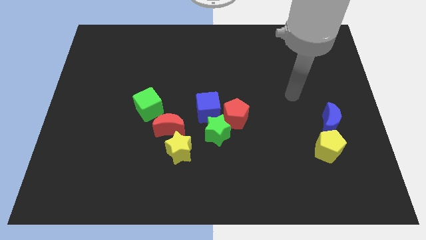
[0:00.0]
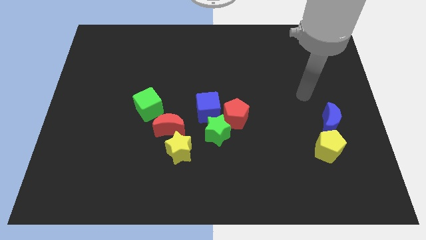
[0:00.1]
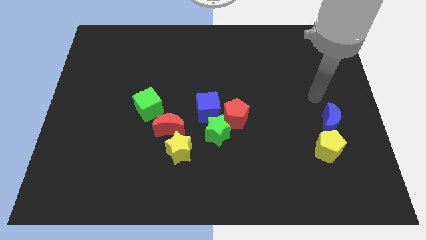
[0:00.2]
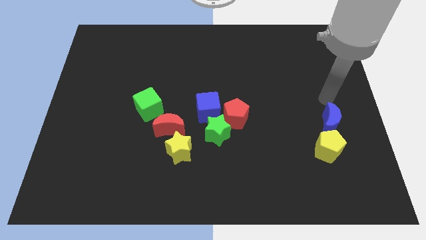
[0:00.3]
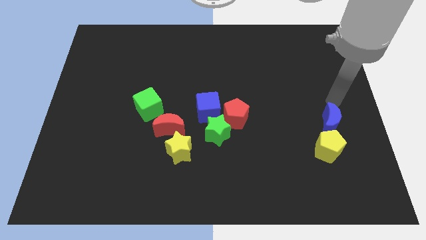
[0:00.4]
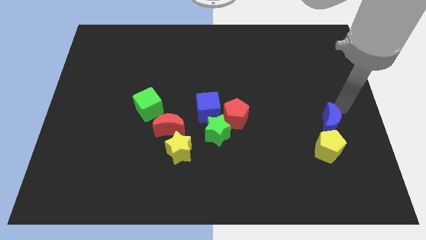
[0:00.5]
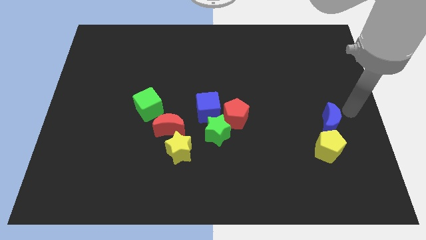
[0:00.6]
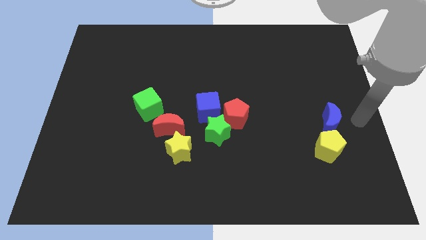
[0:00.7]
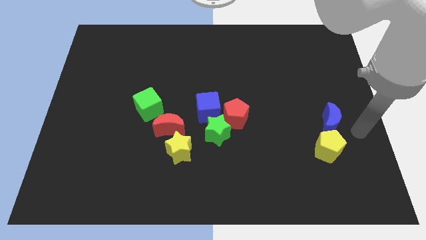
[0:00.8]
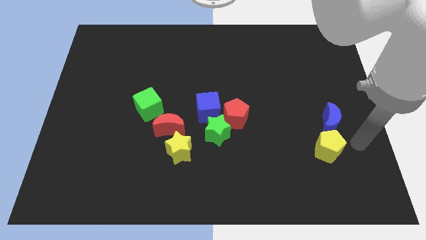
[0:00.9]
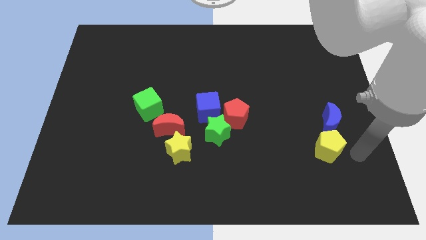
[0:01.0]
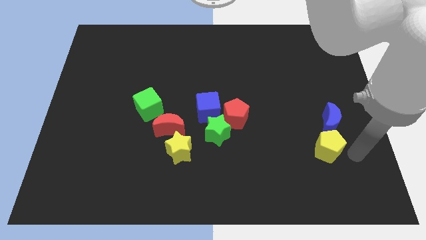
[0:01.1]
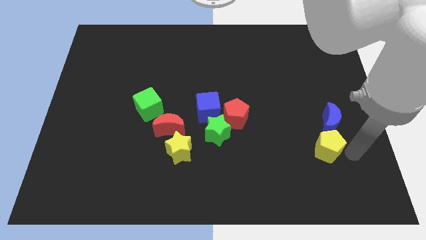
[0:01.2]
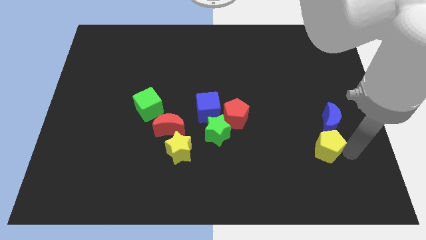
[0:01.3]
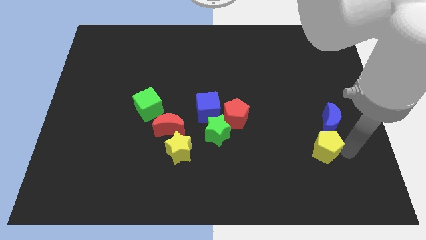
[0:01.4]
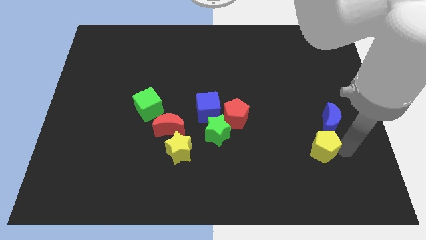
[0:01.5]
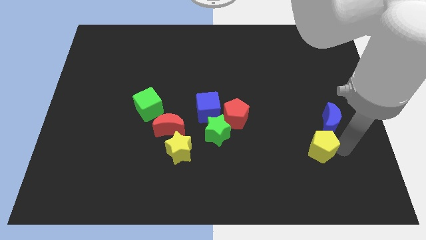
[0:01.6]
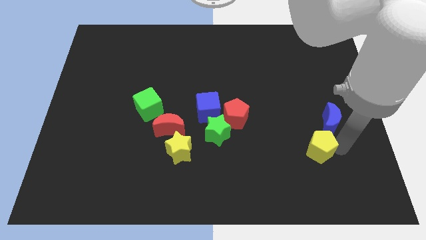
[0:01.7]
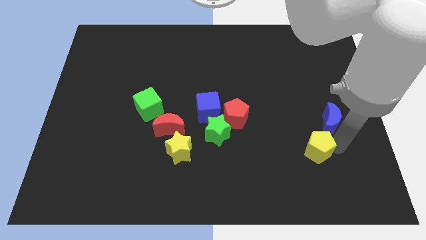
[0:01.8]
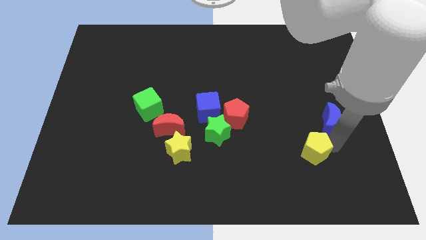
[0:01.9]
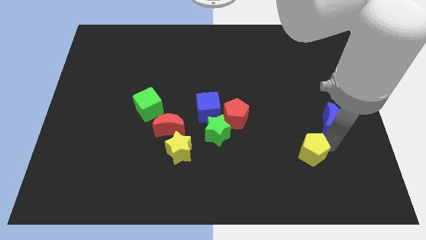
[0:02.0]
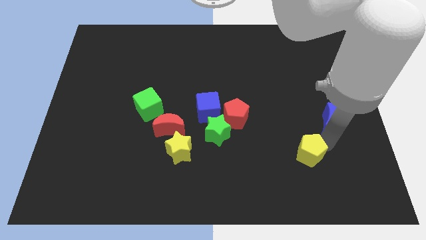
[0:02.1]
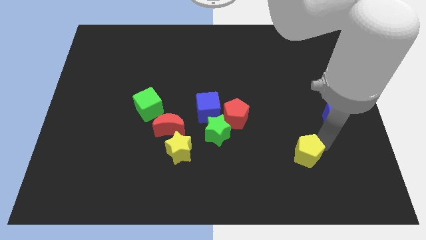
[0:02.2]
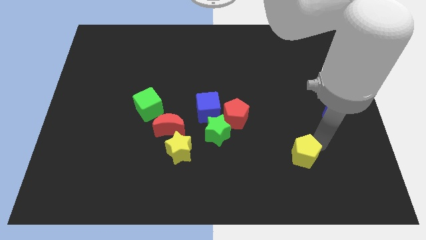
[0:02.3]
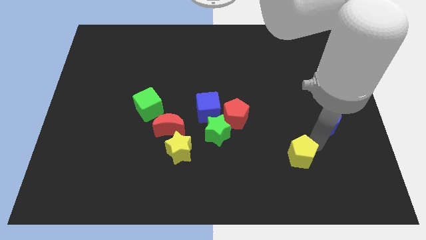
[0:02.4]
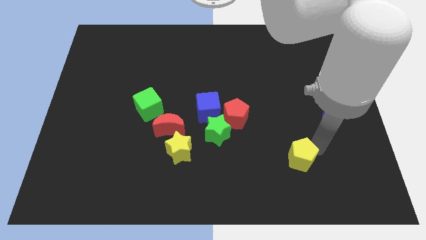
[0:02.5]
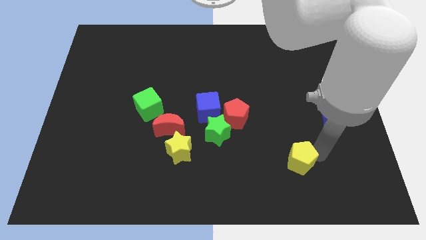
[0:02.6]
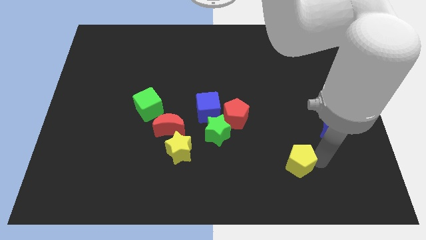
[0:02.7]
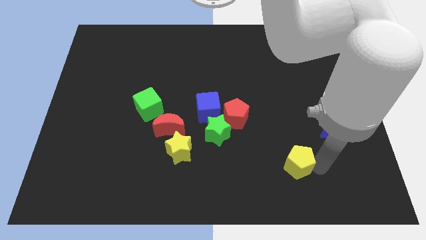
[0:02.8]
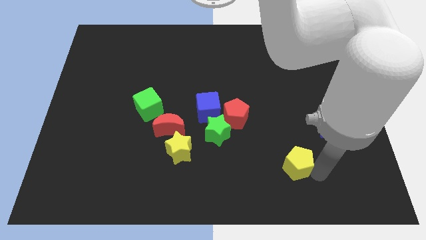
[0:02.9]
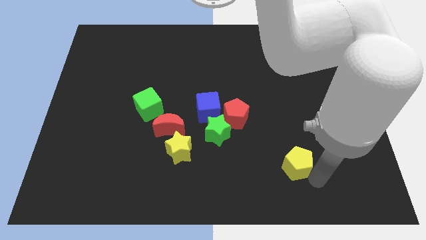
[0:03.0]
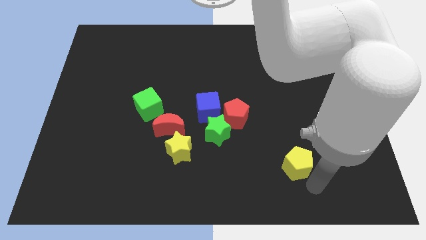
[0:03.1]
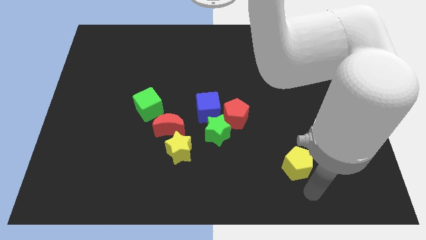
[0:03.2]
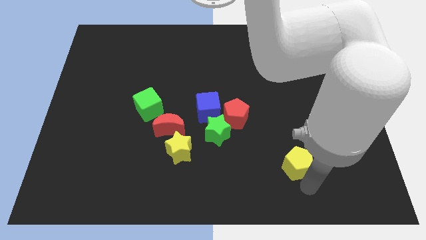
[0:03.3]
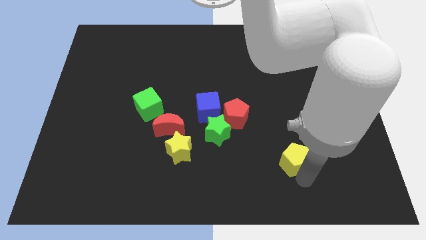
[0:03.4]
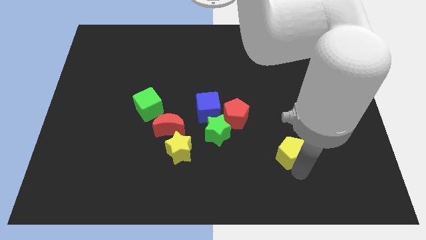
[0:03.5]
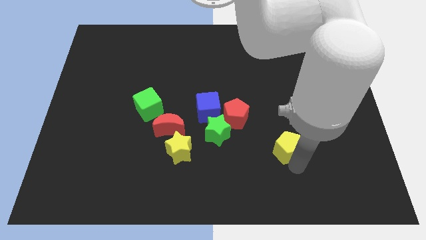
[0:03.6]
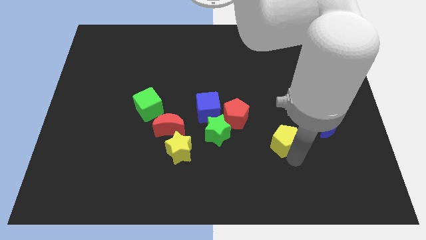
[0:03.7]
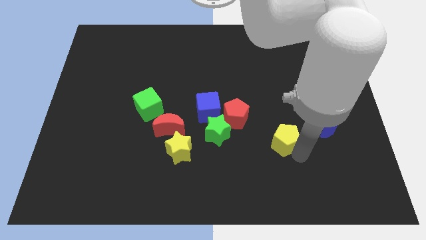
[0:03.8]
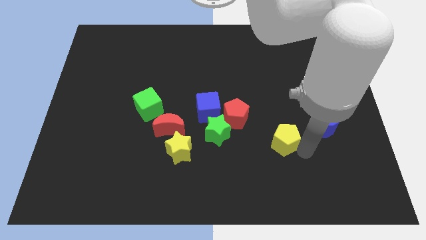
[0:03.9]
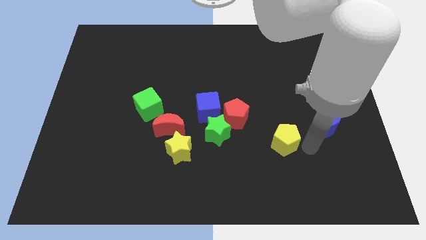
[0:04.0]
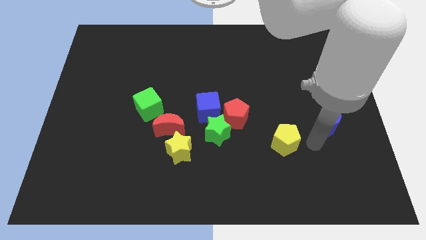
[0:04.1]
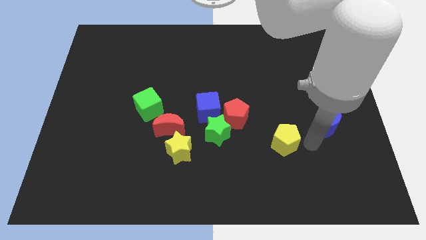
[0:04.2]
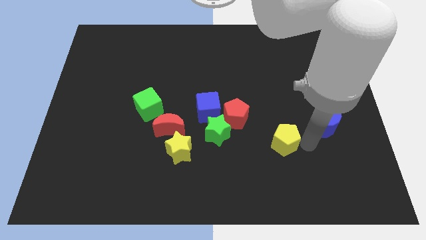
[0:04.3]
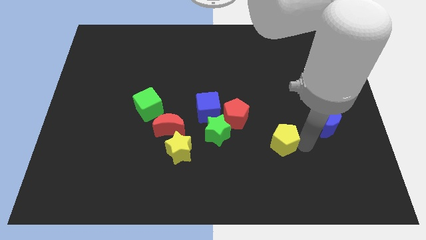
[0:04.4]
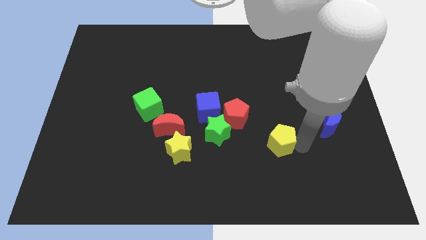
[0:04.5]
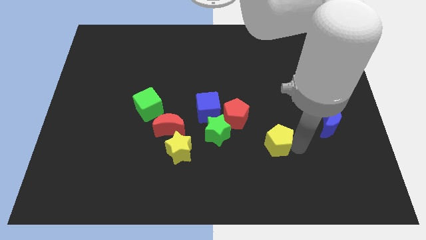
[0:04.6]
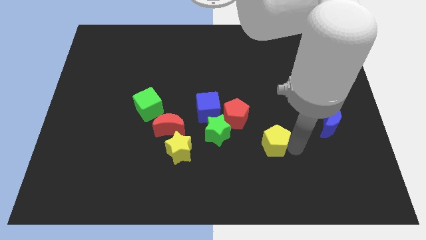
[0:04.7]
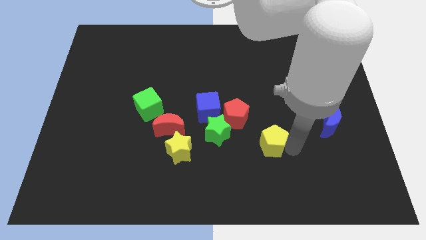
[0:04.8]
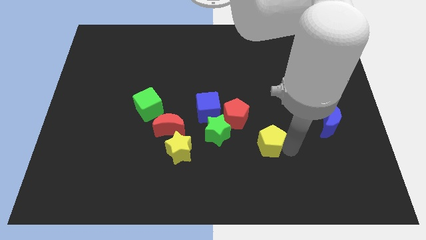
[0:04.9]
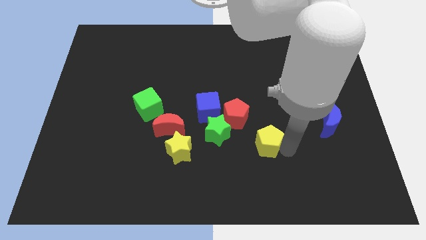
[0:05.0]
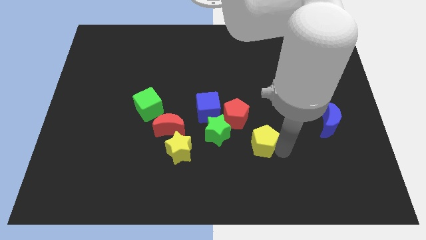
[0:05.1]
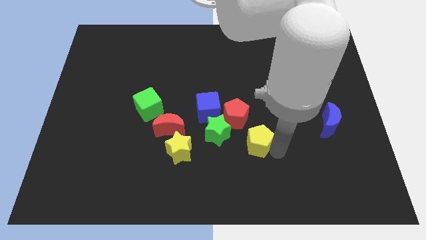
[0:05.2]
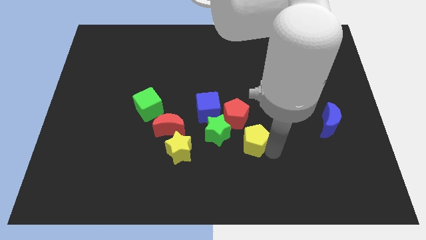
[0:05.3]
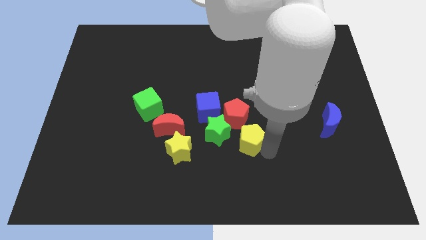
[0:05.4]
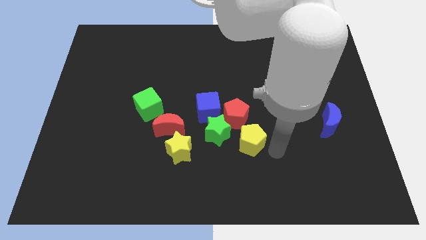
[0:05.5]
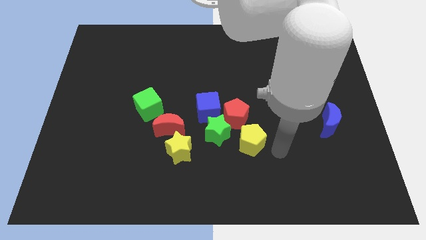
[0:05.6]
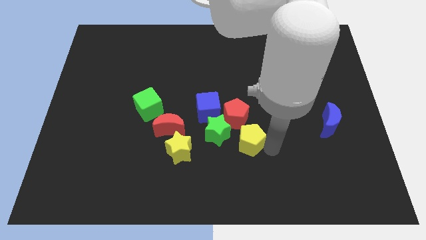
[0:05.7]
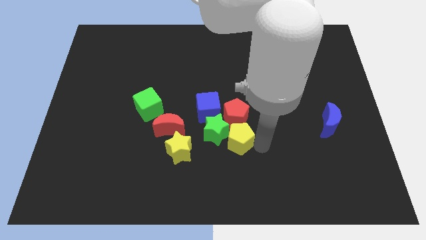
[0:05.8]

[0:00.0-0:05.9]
put the yellow pentagon to the green star

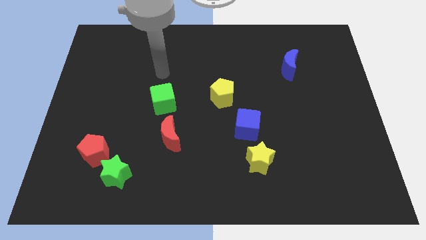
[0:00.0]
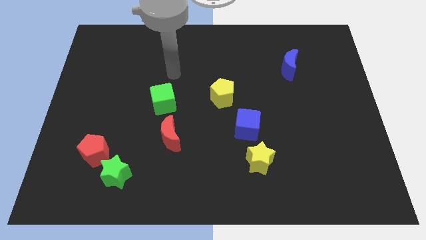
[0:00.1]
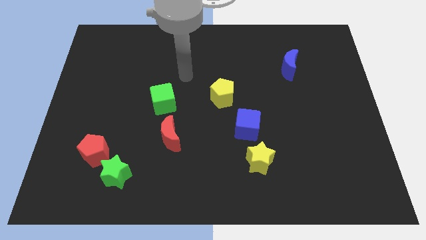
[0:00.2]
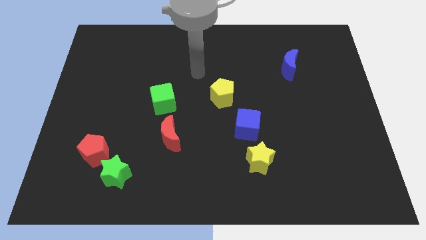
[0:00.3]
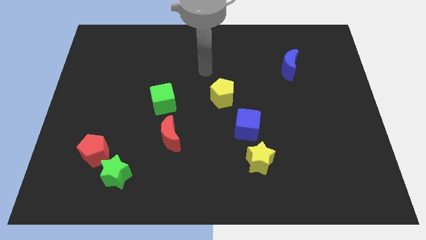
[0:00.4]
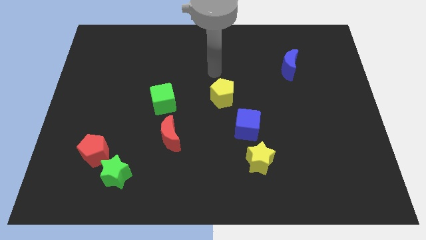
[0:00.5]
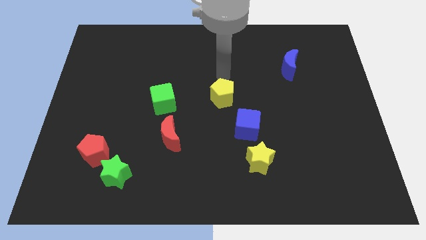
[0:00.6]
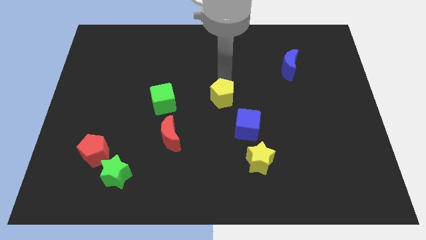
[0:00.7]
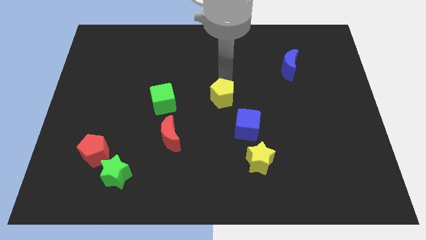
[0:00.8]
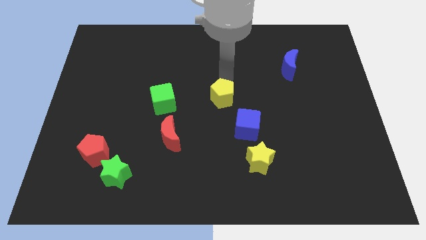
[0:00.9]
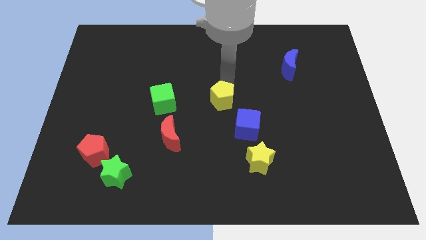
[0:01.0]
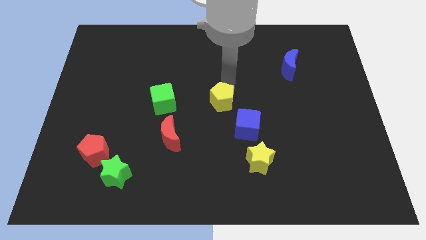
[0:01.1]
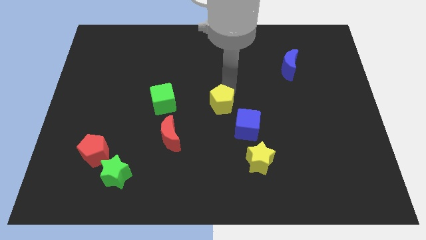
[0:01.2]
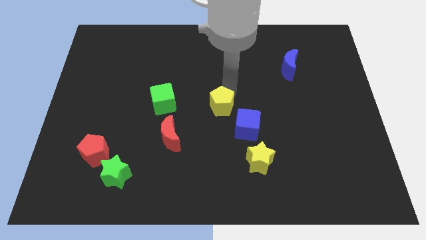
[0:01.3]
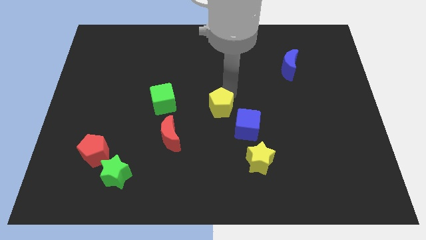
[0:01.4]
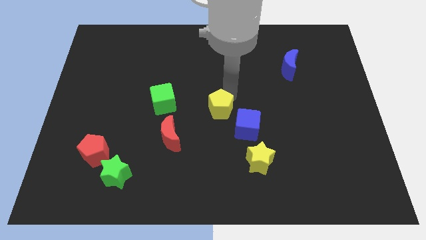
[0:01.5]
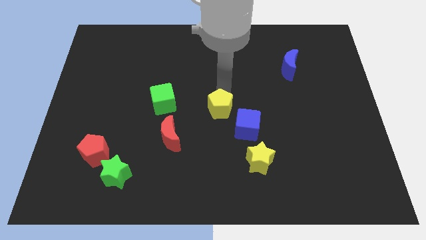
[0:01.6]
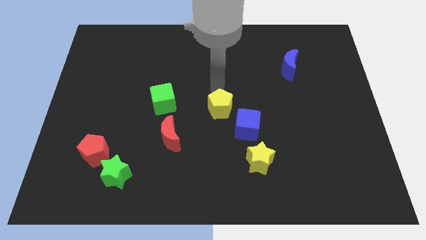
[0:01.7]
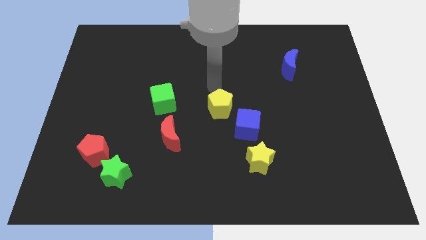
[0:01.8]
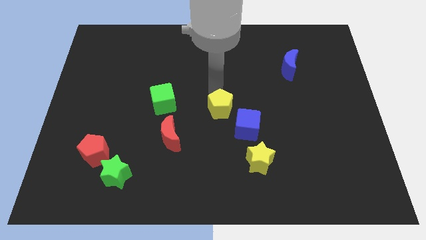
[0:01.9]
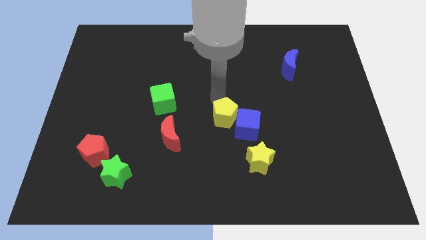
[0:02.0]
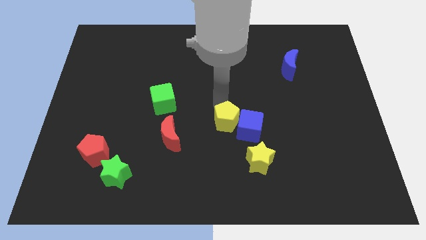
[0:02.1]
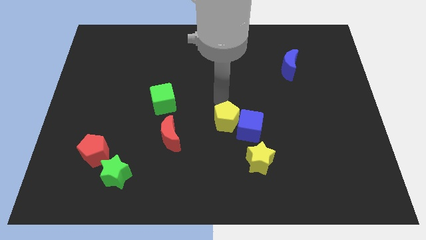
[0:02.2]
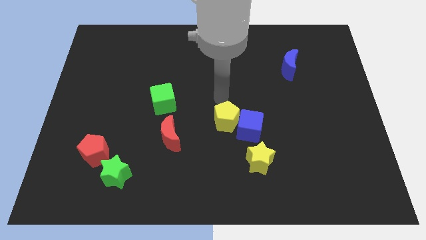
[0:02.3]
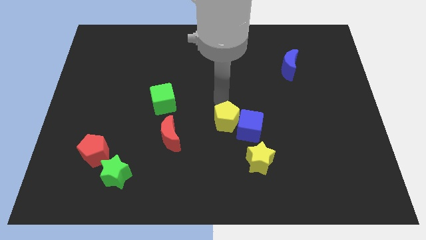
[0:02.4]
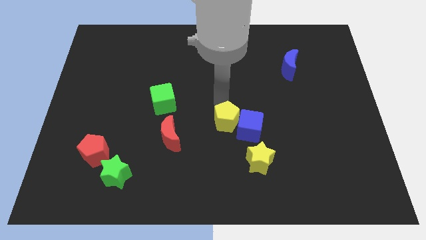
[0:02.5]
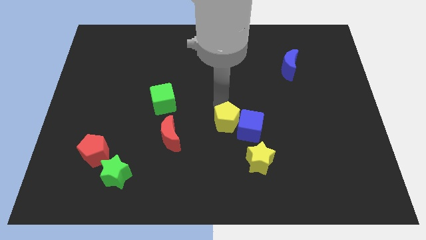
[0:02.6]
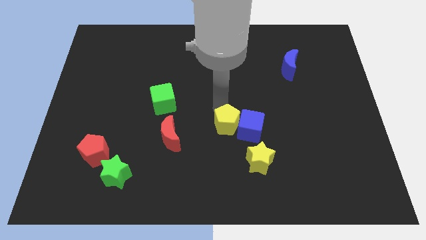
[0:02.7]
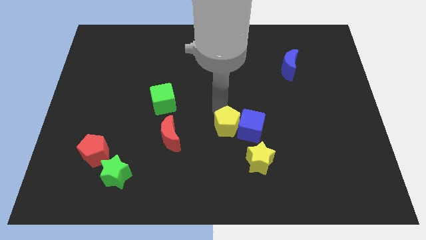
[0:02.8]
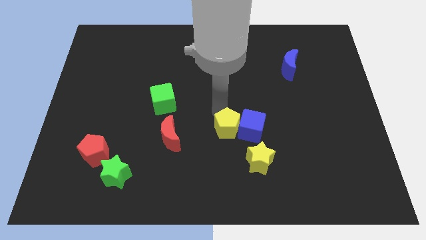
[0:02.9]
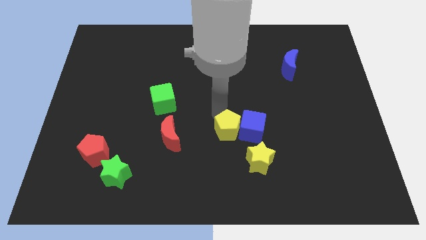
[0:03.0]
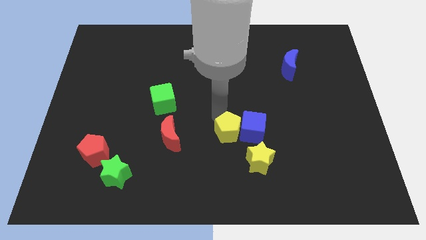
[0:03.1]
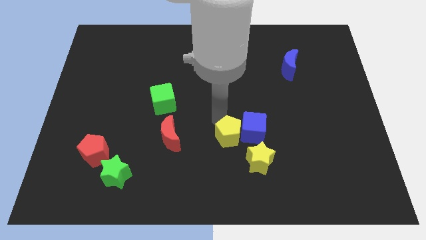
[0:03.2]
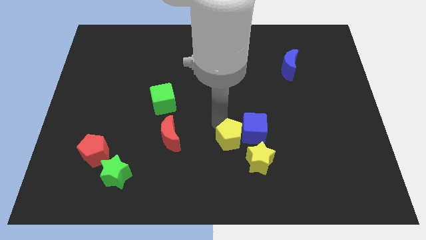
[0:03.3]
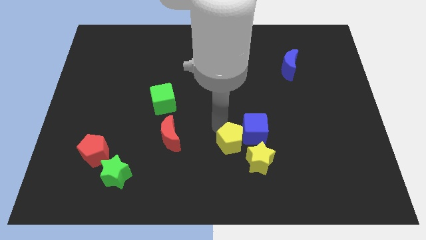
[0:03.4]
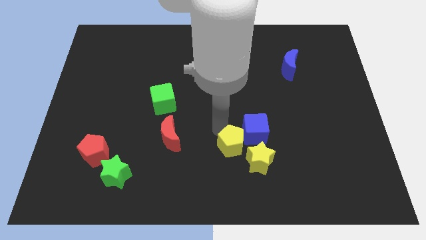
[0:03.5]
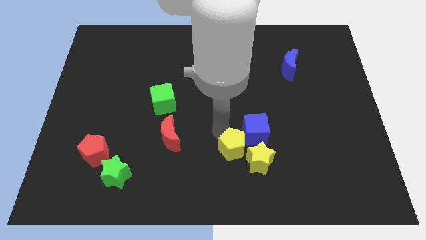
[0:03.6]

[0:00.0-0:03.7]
push the yellow pentagon close to the yellow star
